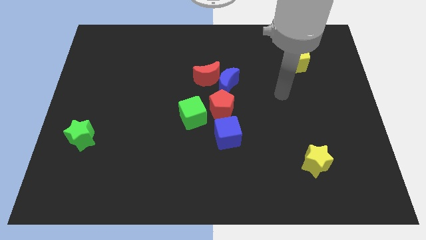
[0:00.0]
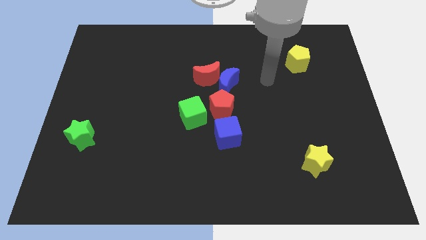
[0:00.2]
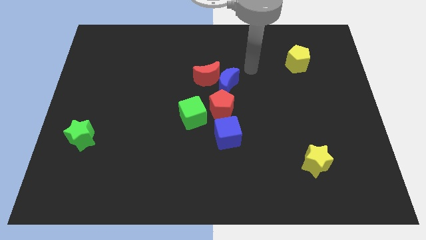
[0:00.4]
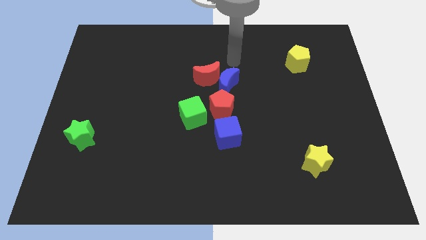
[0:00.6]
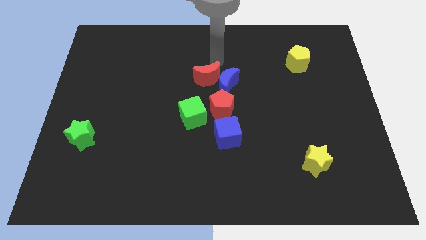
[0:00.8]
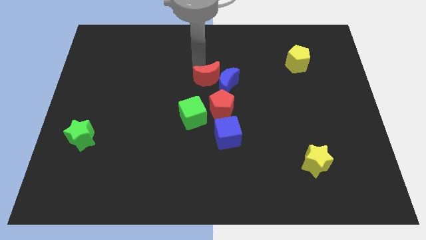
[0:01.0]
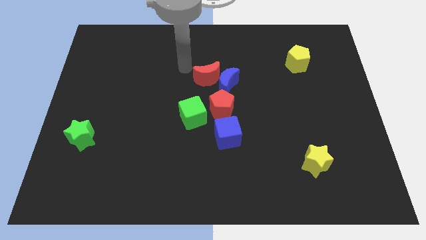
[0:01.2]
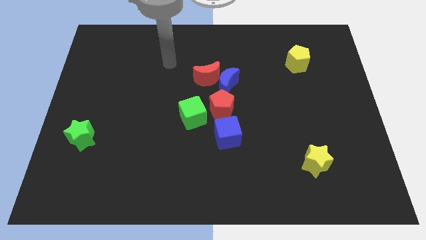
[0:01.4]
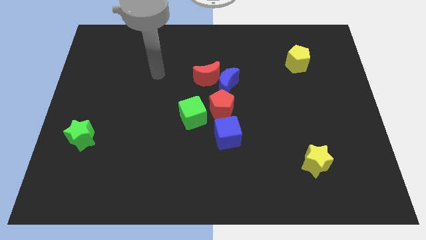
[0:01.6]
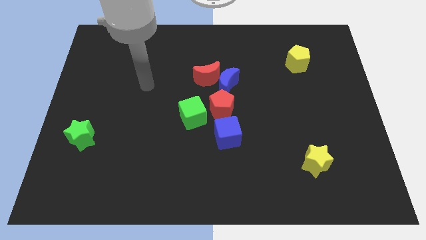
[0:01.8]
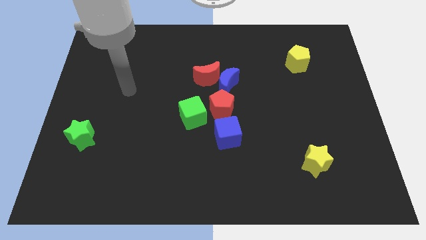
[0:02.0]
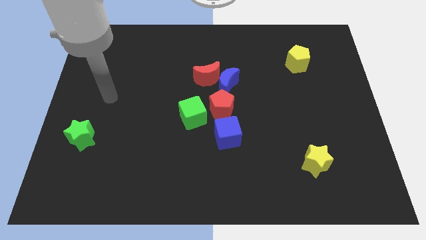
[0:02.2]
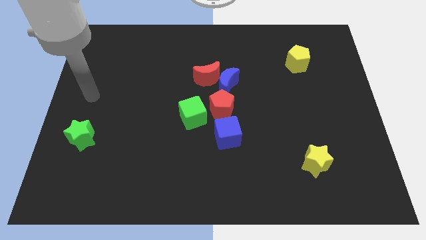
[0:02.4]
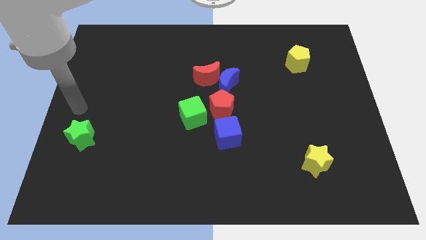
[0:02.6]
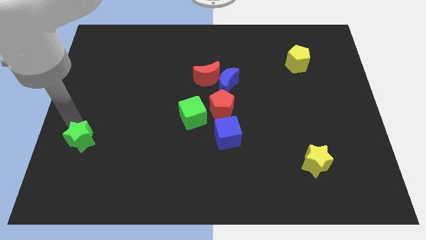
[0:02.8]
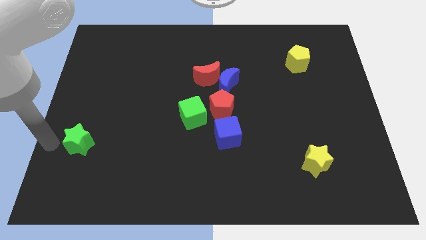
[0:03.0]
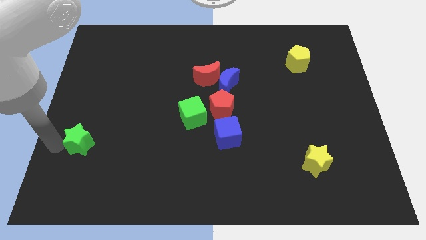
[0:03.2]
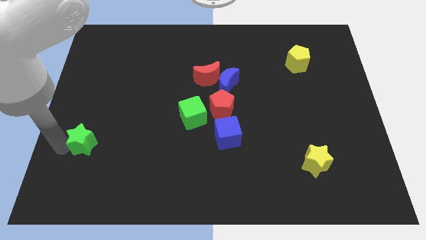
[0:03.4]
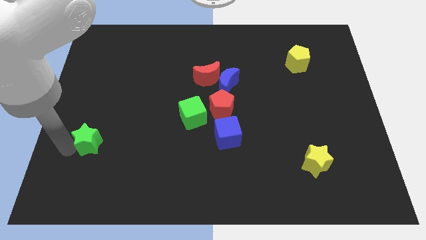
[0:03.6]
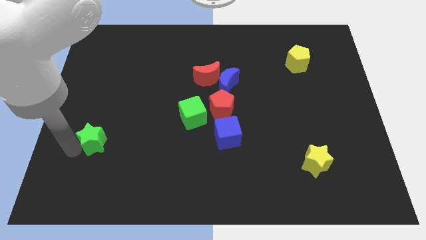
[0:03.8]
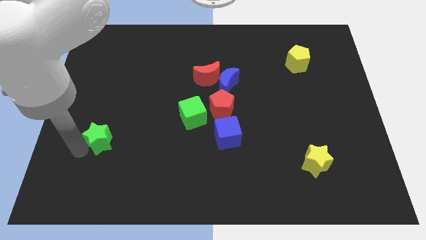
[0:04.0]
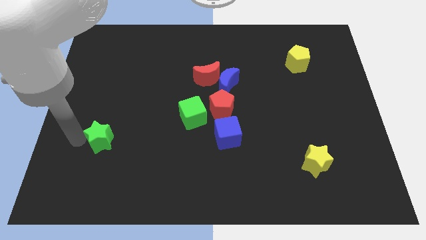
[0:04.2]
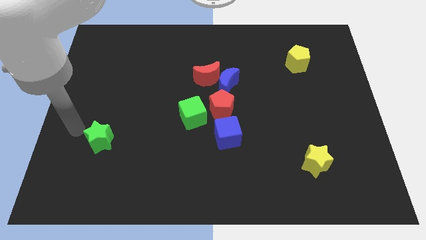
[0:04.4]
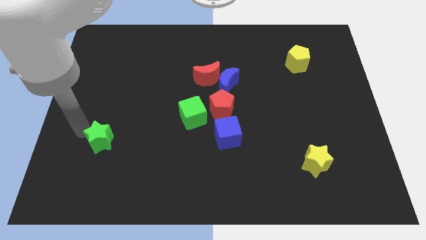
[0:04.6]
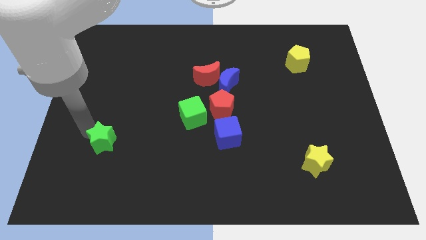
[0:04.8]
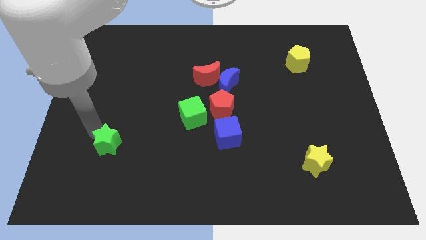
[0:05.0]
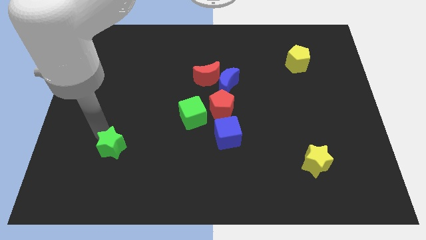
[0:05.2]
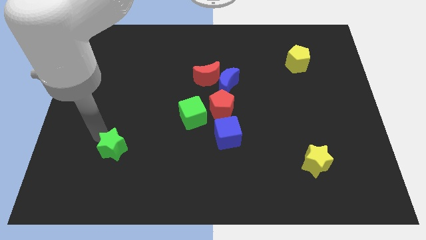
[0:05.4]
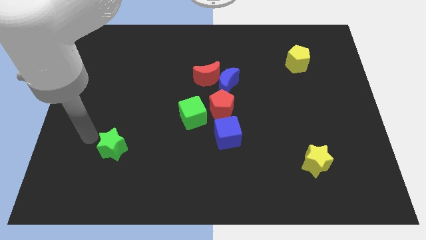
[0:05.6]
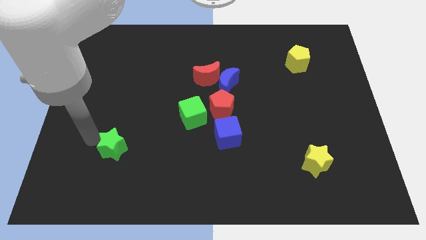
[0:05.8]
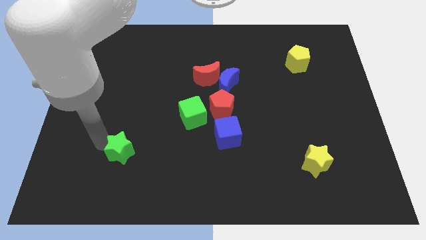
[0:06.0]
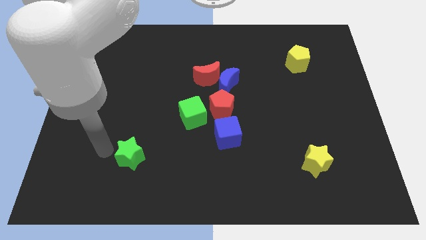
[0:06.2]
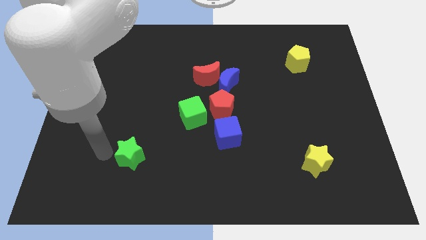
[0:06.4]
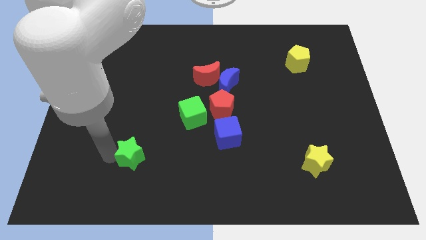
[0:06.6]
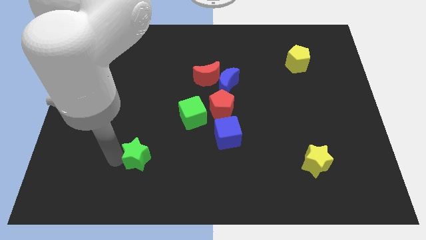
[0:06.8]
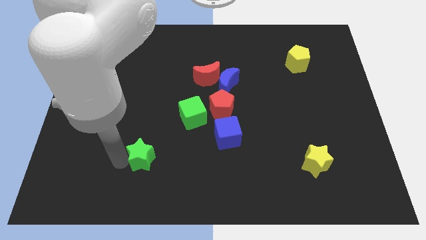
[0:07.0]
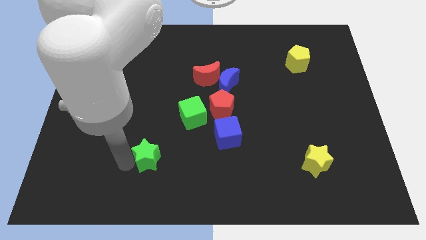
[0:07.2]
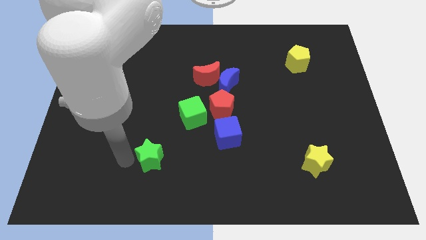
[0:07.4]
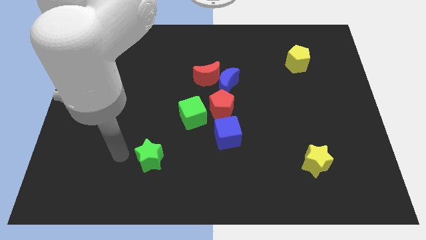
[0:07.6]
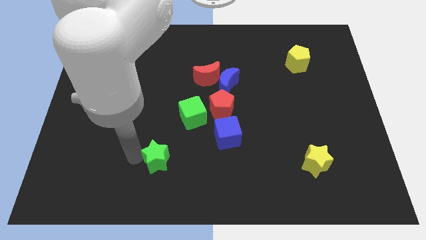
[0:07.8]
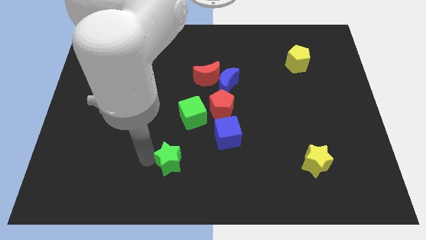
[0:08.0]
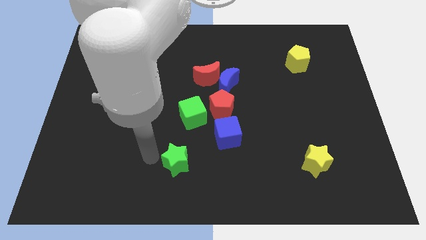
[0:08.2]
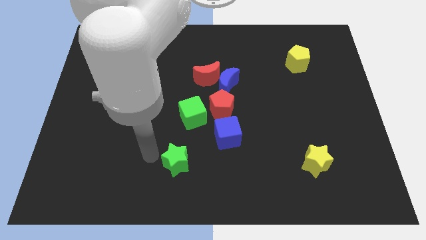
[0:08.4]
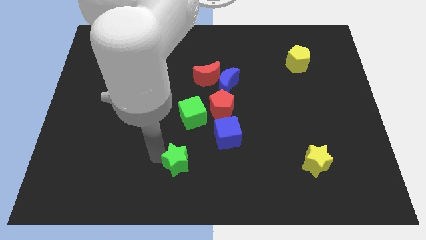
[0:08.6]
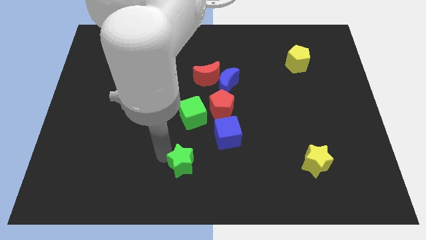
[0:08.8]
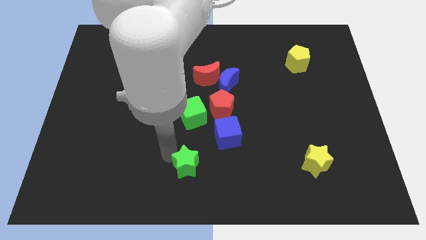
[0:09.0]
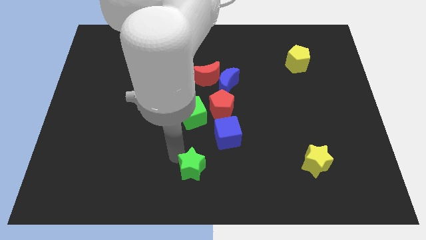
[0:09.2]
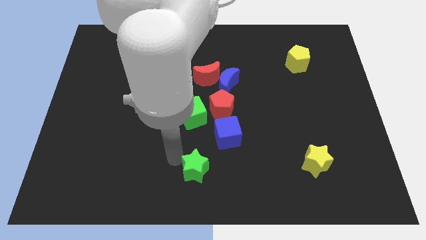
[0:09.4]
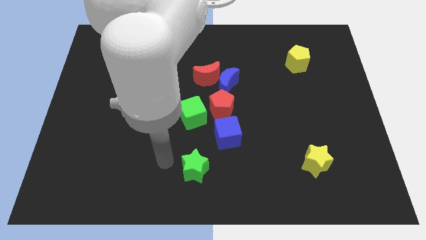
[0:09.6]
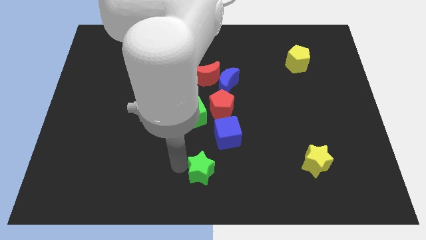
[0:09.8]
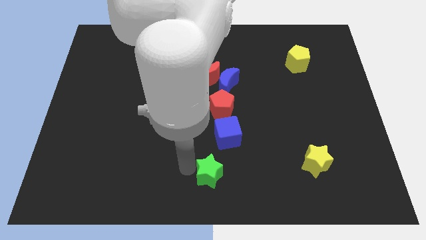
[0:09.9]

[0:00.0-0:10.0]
put the green star to the bottom of the blue cube

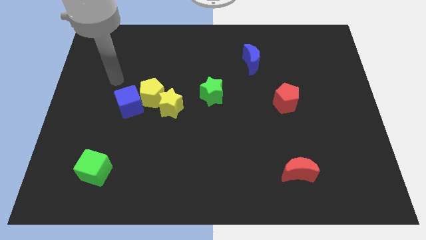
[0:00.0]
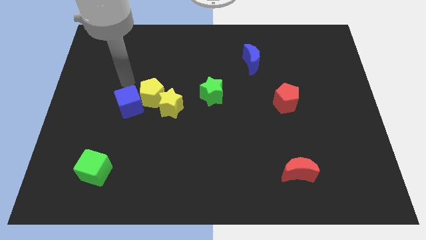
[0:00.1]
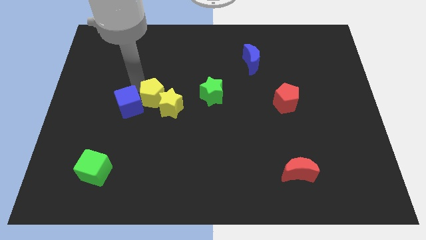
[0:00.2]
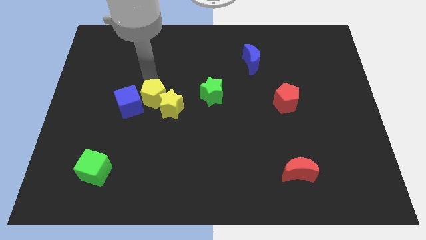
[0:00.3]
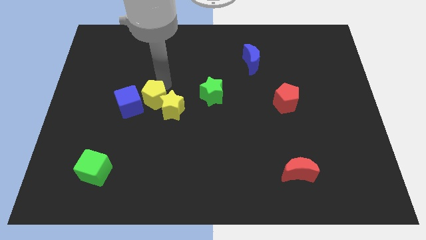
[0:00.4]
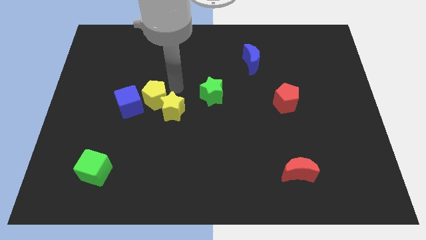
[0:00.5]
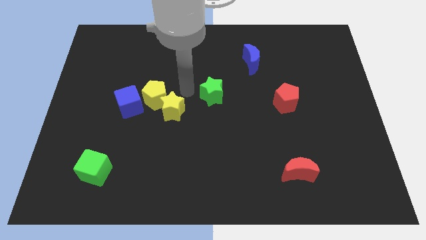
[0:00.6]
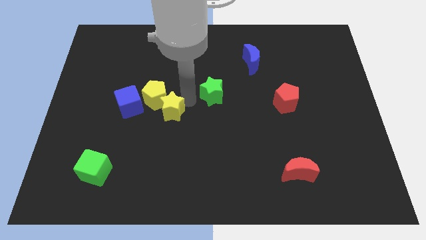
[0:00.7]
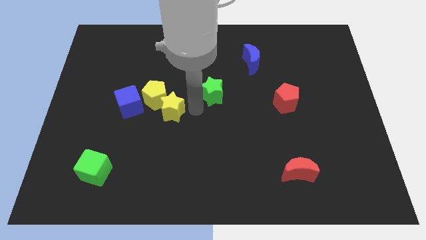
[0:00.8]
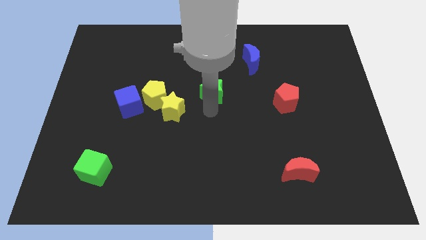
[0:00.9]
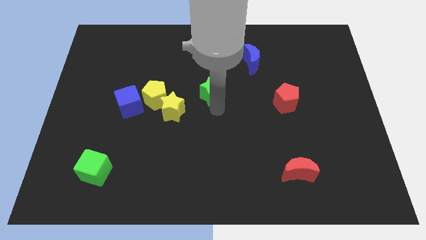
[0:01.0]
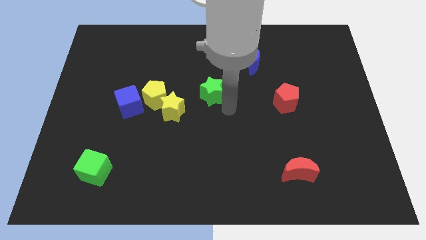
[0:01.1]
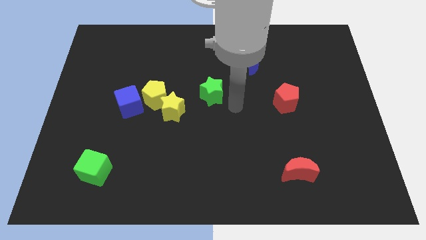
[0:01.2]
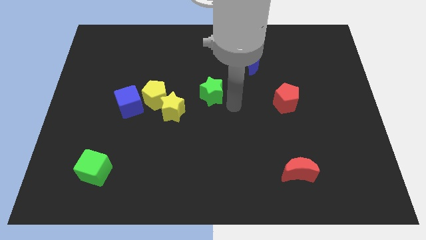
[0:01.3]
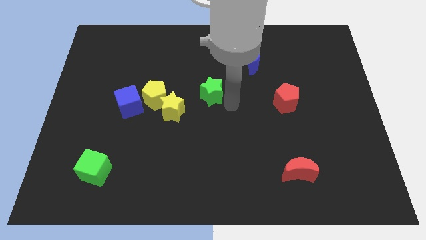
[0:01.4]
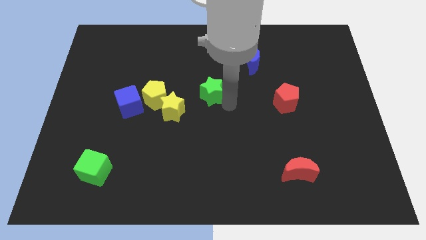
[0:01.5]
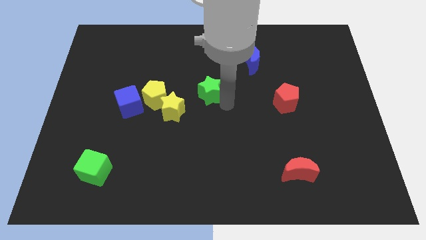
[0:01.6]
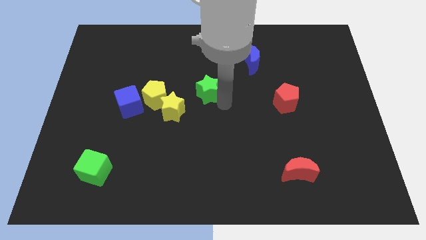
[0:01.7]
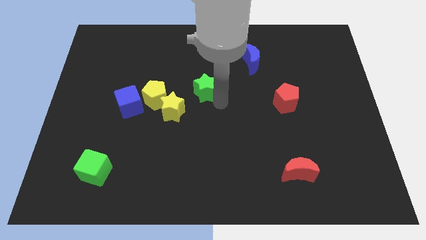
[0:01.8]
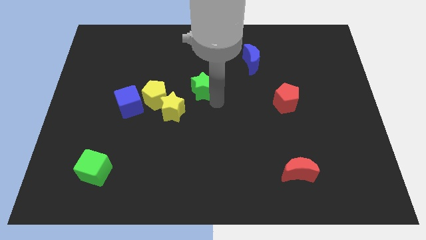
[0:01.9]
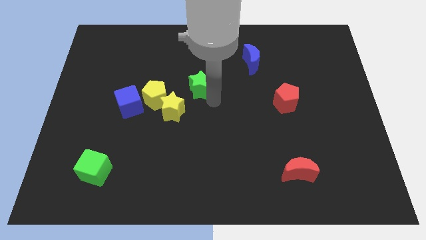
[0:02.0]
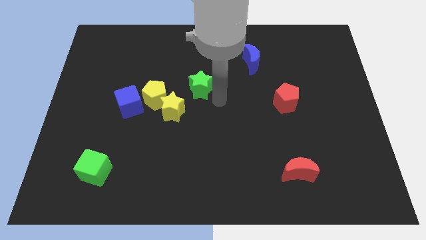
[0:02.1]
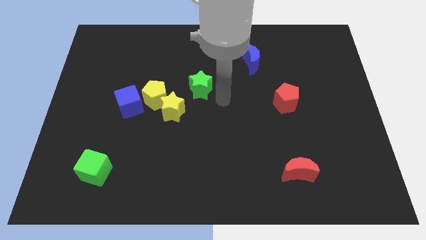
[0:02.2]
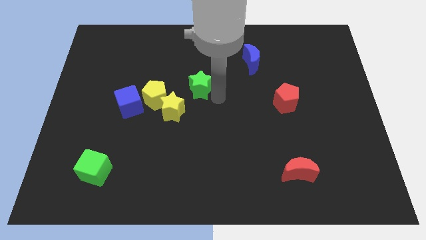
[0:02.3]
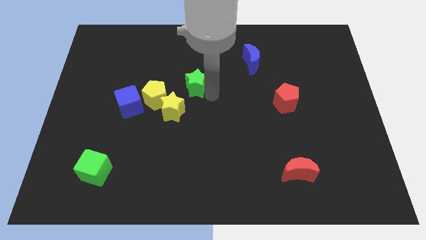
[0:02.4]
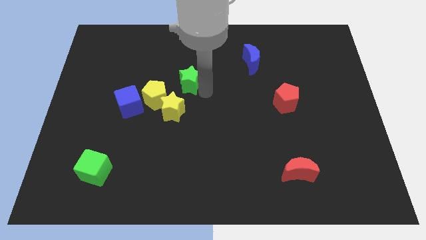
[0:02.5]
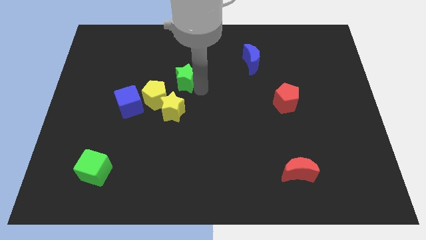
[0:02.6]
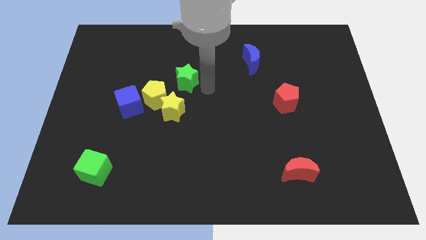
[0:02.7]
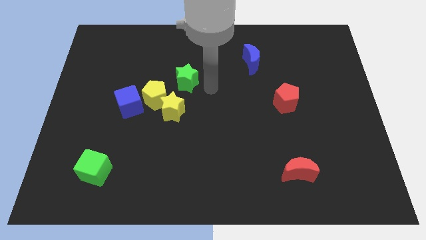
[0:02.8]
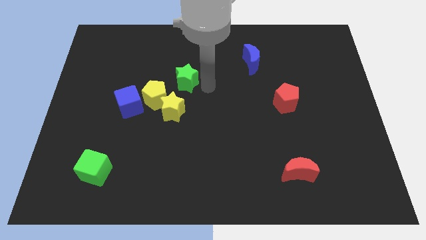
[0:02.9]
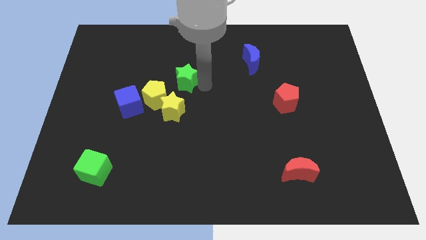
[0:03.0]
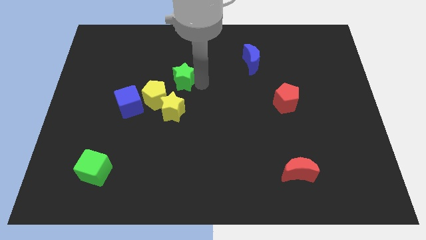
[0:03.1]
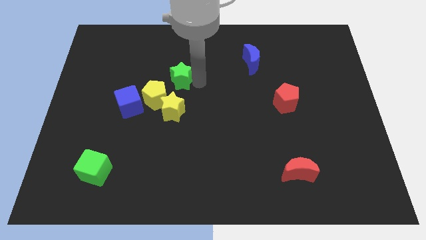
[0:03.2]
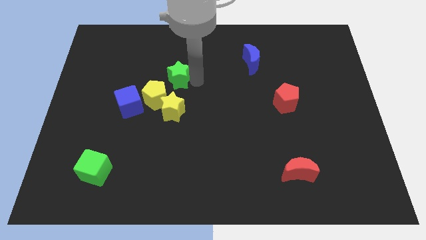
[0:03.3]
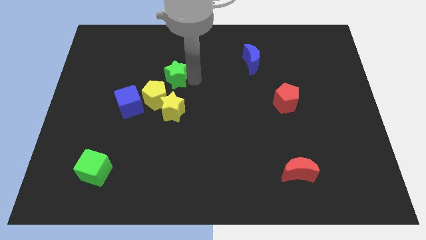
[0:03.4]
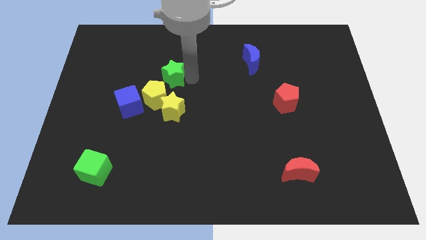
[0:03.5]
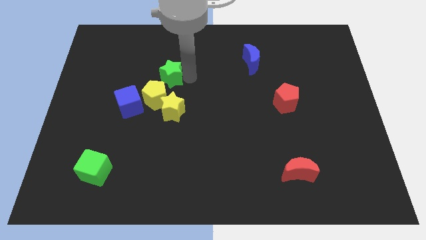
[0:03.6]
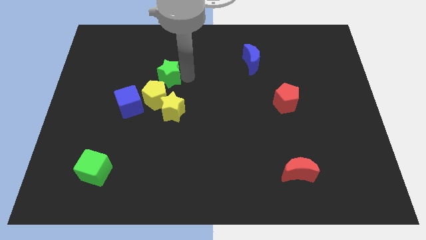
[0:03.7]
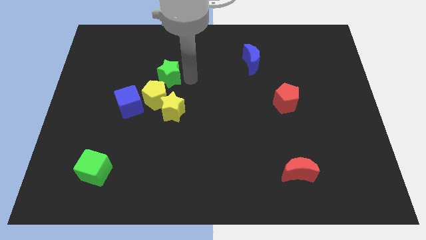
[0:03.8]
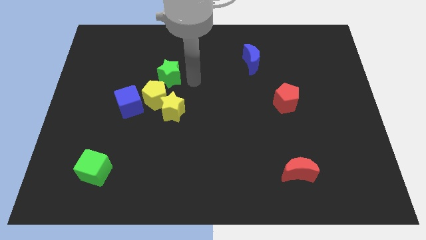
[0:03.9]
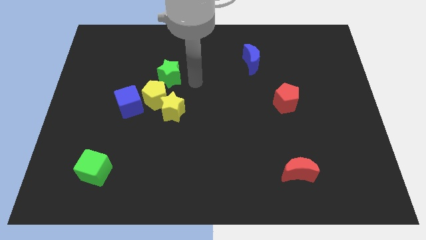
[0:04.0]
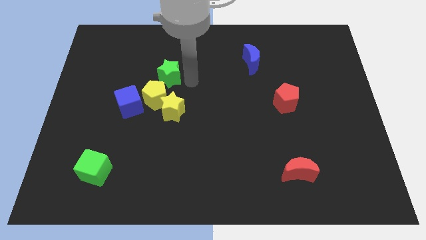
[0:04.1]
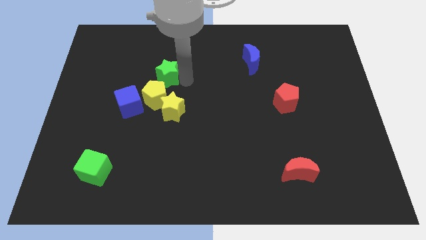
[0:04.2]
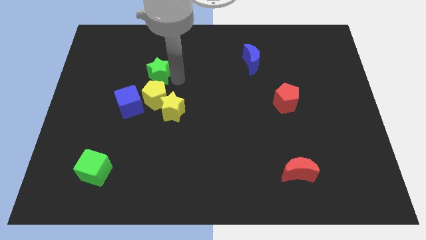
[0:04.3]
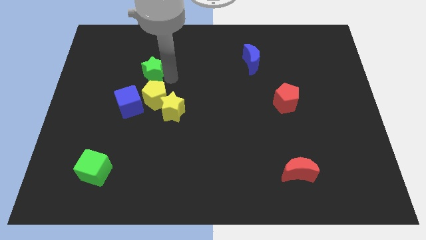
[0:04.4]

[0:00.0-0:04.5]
slide the green star to the top side of the blue cube
